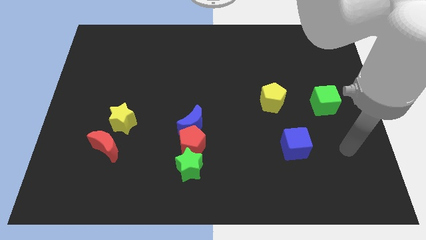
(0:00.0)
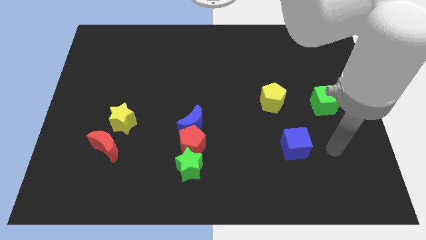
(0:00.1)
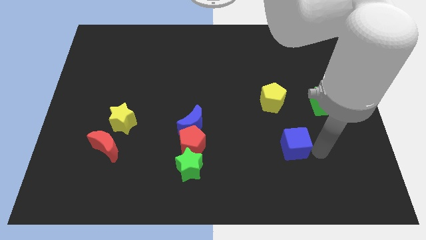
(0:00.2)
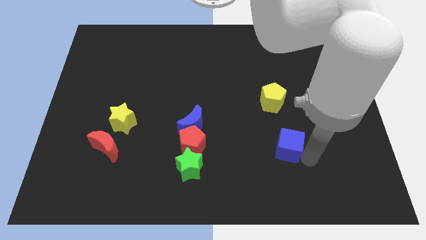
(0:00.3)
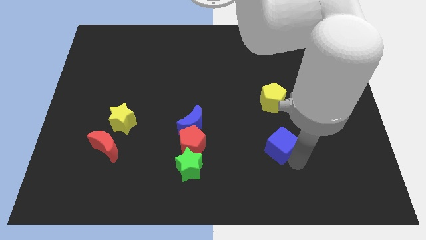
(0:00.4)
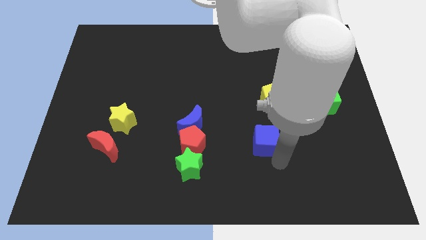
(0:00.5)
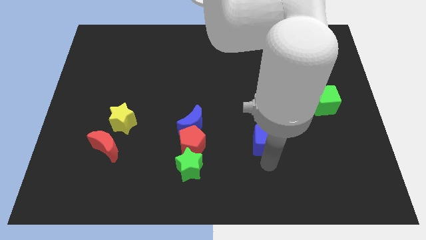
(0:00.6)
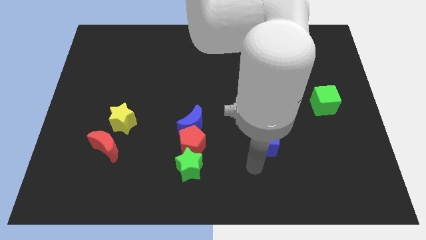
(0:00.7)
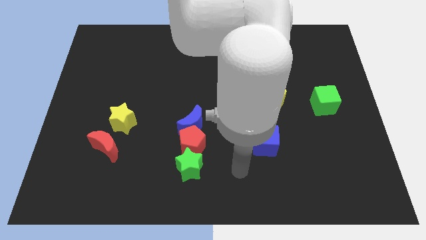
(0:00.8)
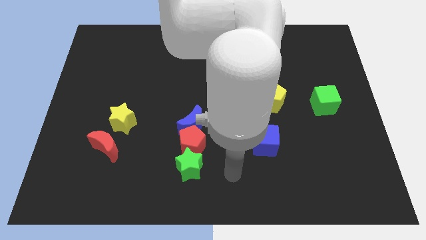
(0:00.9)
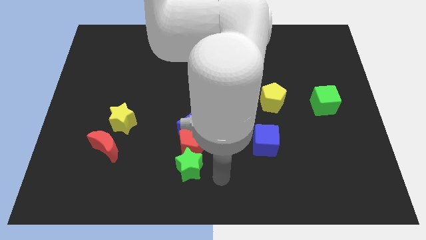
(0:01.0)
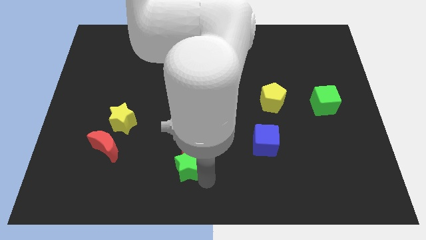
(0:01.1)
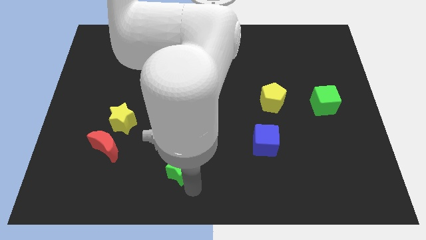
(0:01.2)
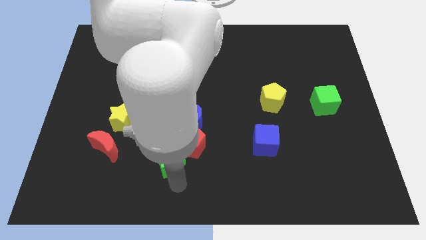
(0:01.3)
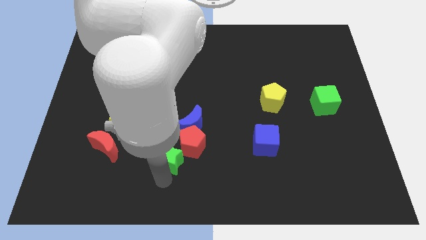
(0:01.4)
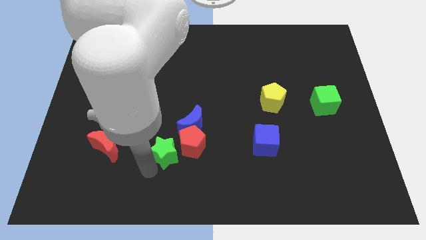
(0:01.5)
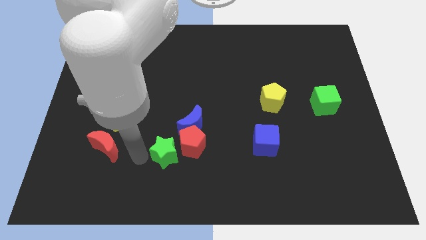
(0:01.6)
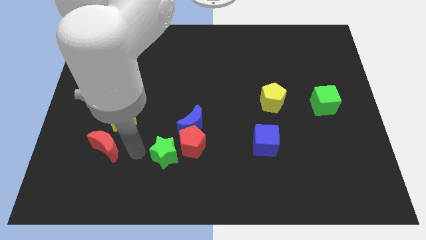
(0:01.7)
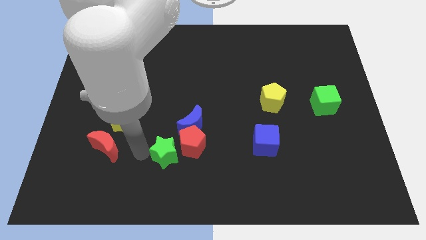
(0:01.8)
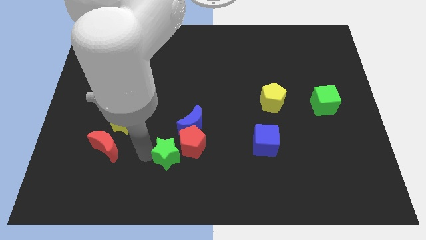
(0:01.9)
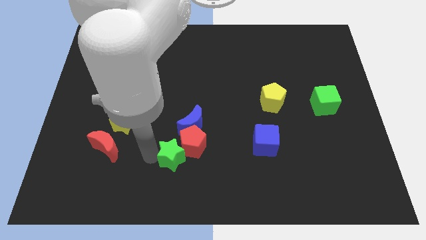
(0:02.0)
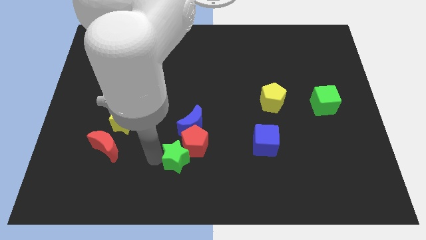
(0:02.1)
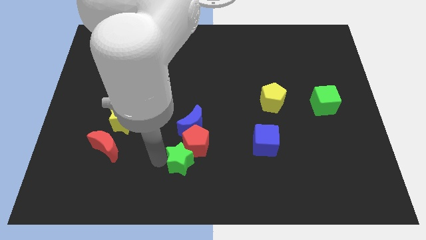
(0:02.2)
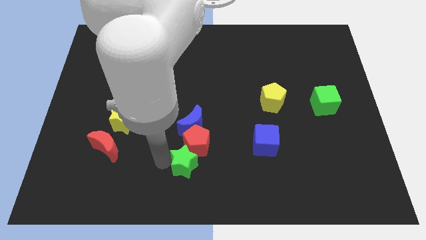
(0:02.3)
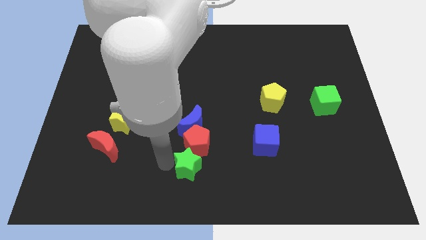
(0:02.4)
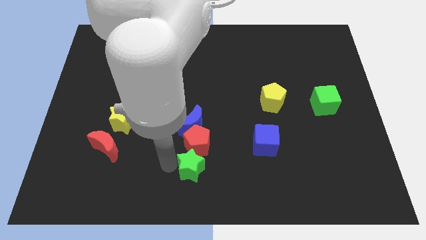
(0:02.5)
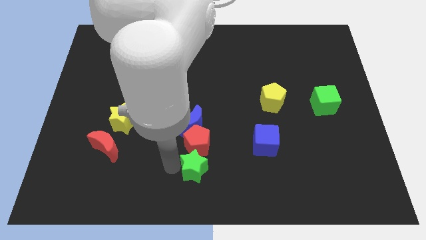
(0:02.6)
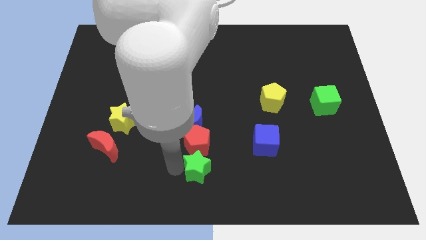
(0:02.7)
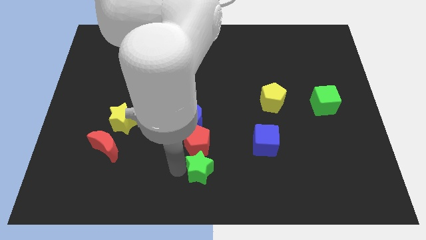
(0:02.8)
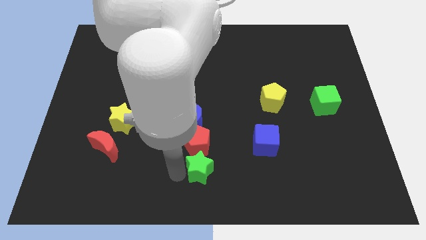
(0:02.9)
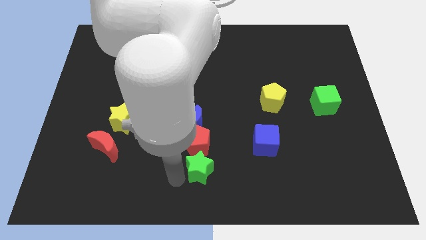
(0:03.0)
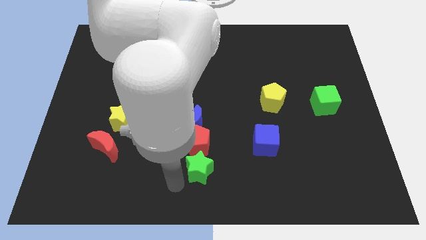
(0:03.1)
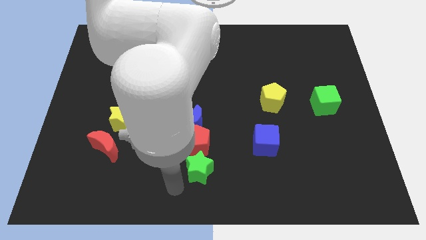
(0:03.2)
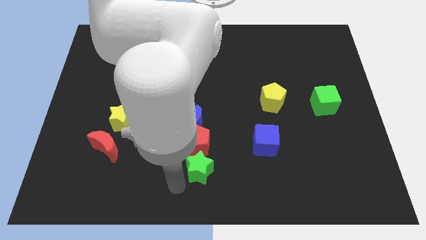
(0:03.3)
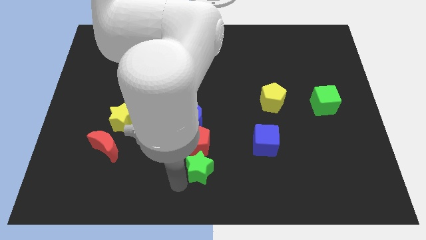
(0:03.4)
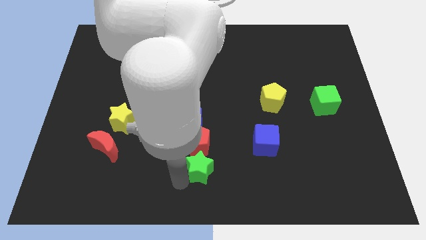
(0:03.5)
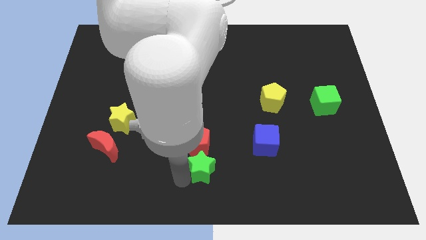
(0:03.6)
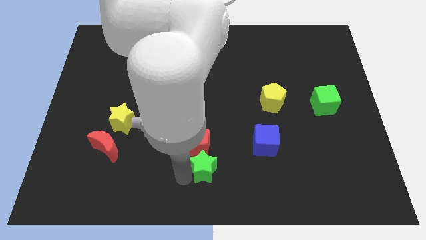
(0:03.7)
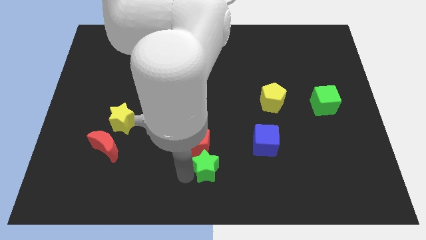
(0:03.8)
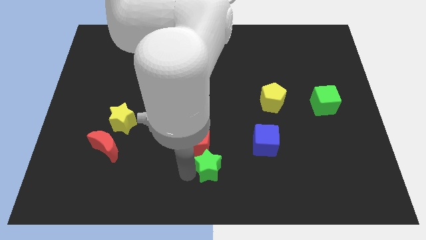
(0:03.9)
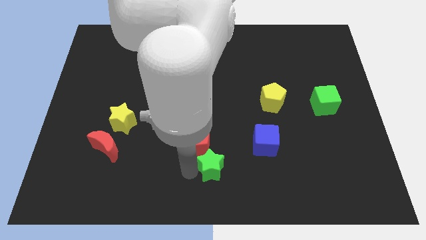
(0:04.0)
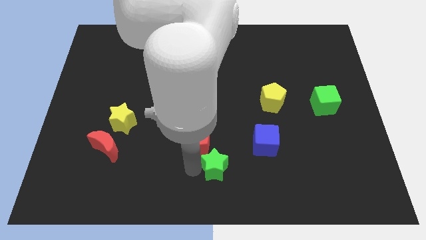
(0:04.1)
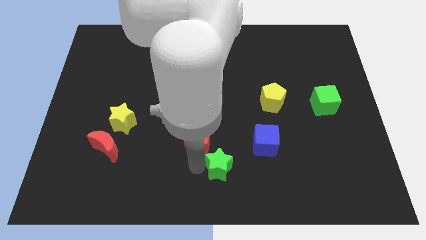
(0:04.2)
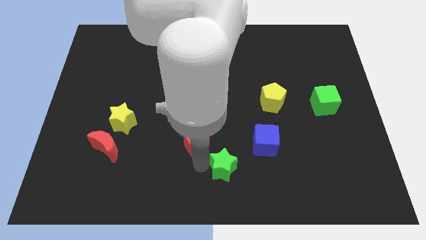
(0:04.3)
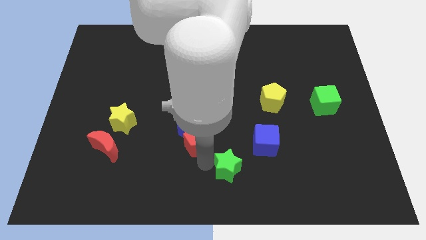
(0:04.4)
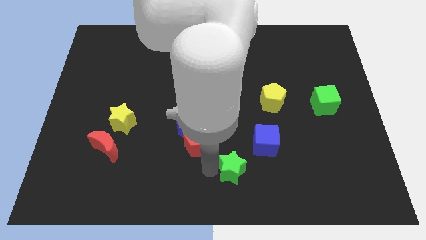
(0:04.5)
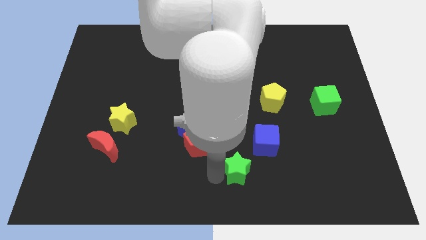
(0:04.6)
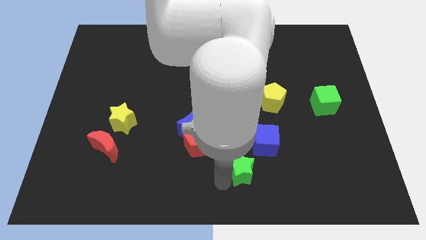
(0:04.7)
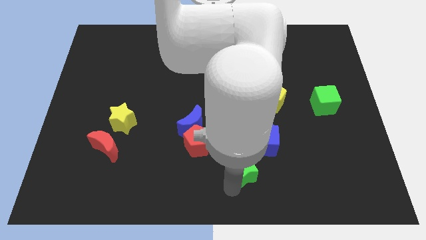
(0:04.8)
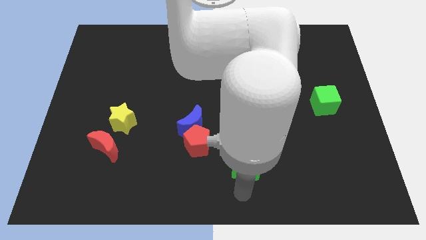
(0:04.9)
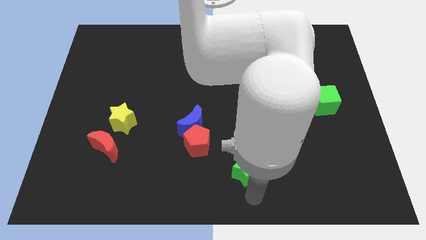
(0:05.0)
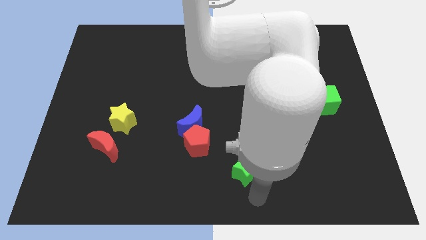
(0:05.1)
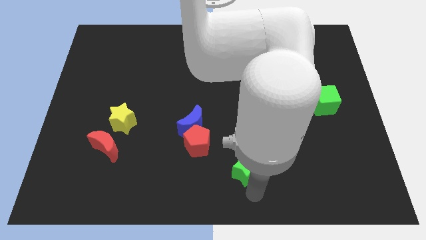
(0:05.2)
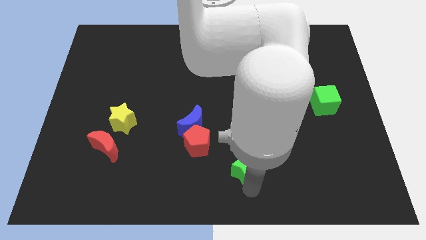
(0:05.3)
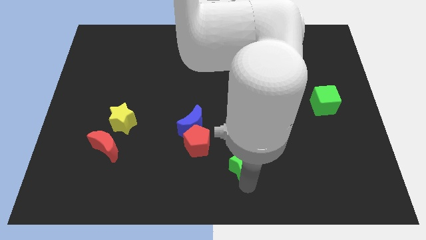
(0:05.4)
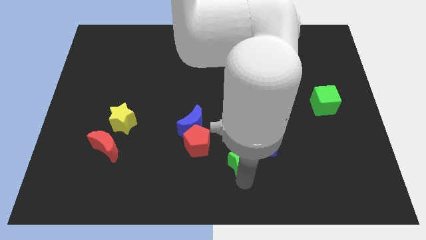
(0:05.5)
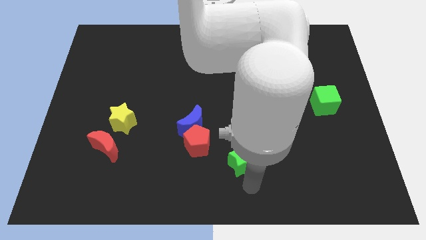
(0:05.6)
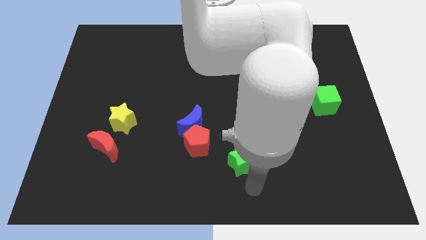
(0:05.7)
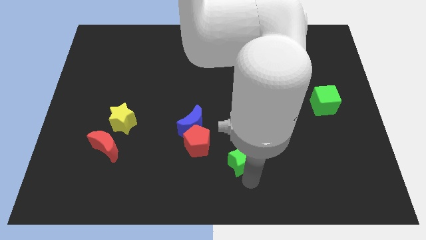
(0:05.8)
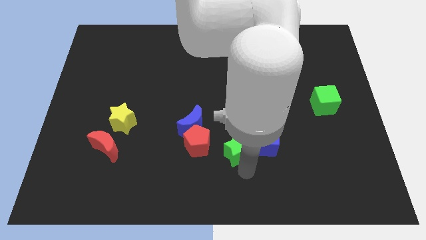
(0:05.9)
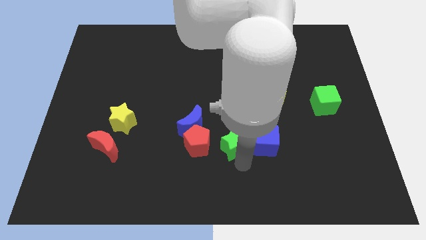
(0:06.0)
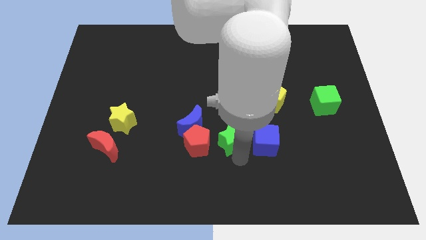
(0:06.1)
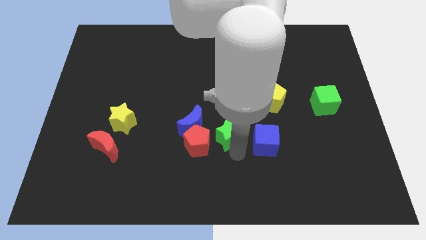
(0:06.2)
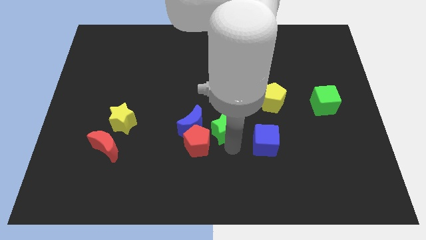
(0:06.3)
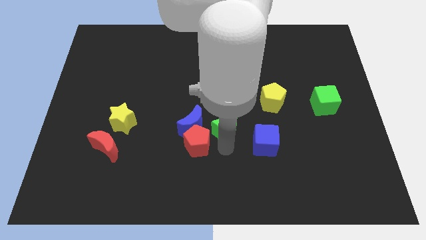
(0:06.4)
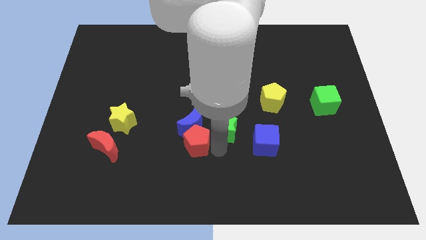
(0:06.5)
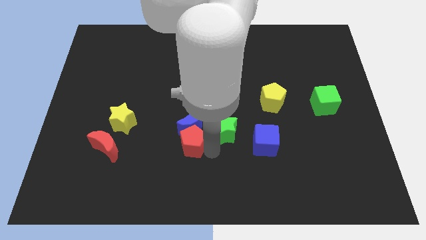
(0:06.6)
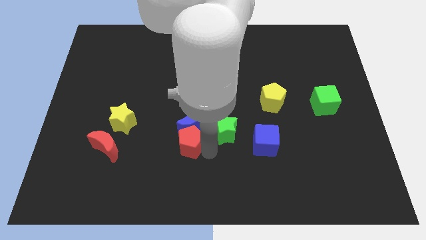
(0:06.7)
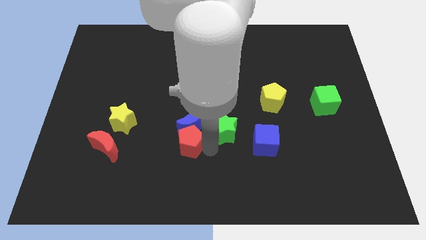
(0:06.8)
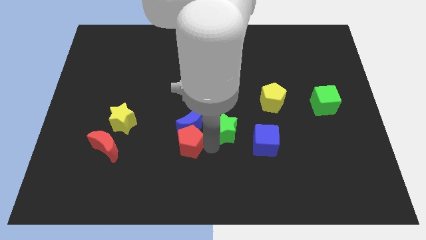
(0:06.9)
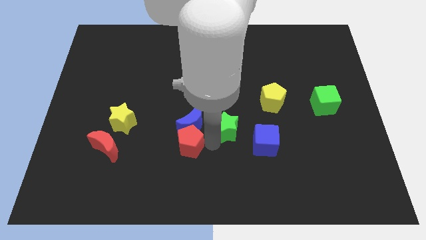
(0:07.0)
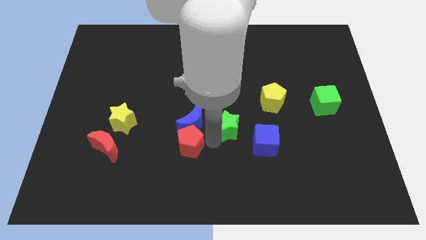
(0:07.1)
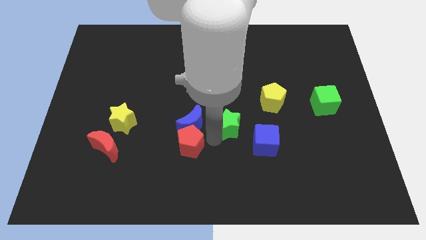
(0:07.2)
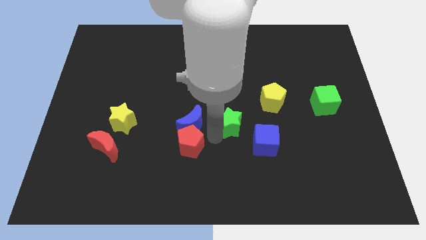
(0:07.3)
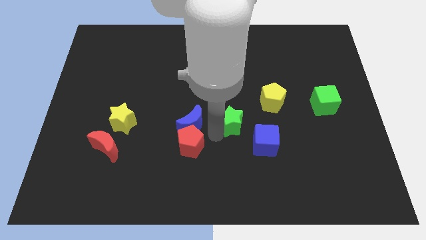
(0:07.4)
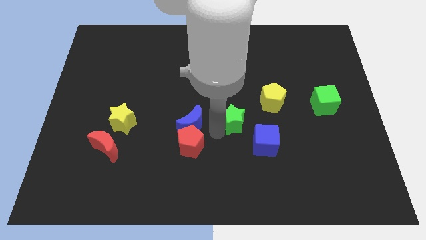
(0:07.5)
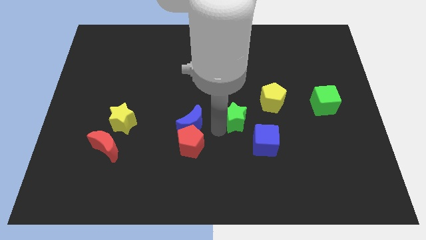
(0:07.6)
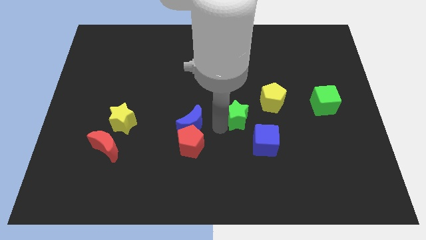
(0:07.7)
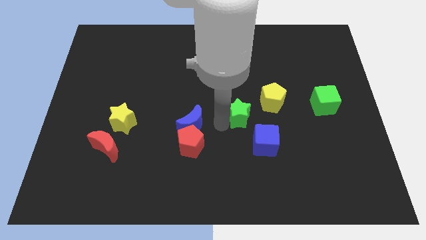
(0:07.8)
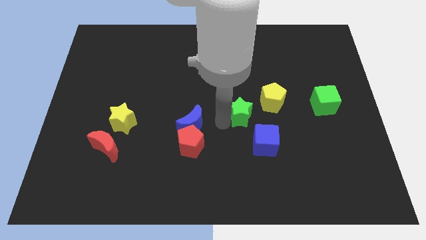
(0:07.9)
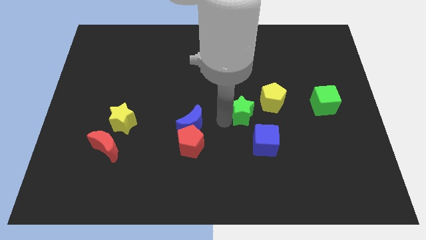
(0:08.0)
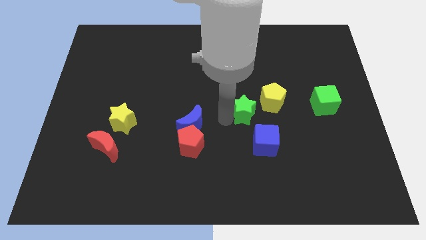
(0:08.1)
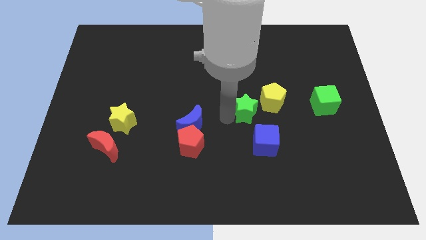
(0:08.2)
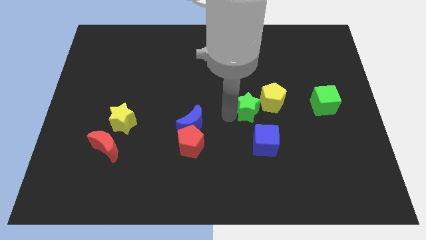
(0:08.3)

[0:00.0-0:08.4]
slide the green star up and right diagonally

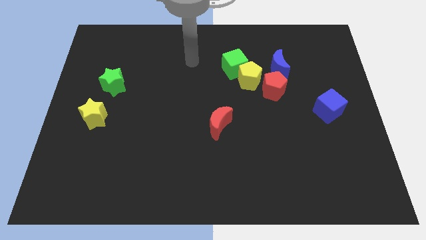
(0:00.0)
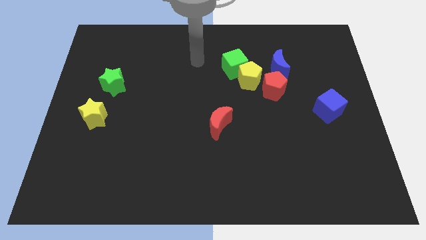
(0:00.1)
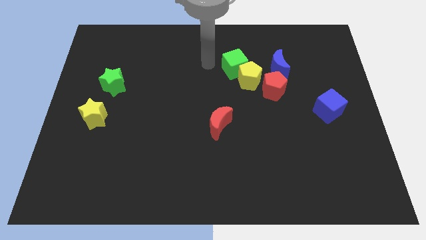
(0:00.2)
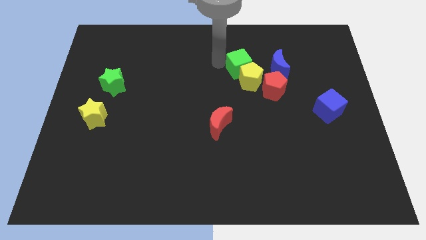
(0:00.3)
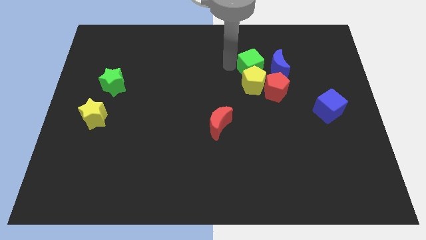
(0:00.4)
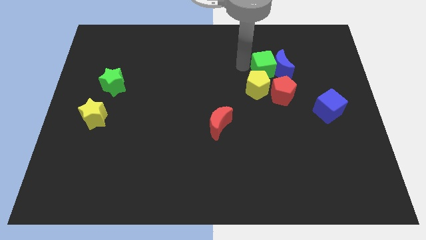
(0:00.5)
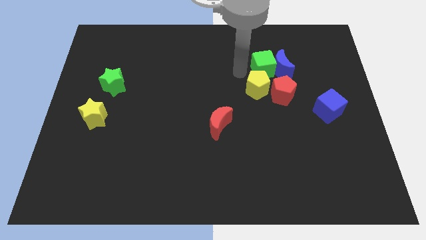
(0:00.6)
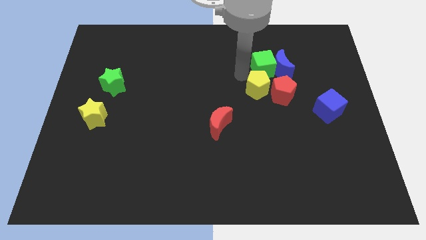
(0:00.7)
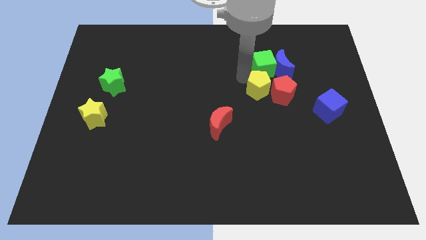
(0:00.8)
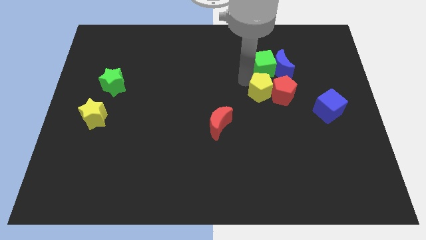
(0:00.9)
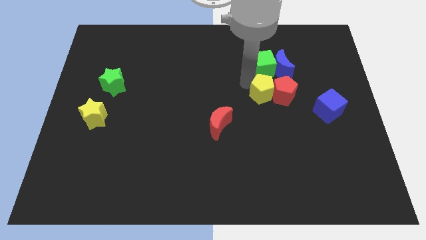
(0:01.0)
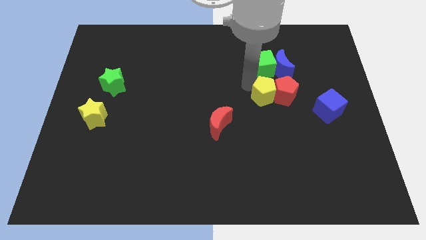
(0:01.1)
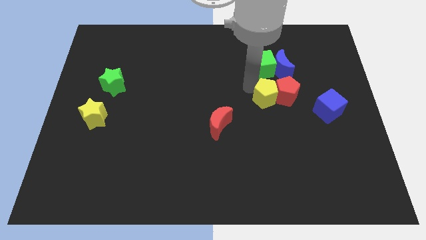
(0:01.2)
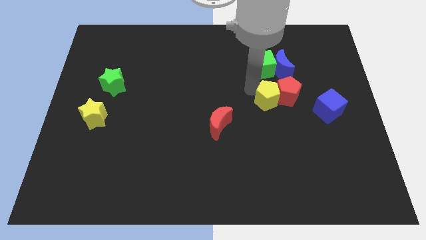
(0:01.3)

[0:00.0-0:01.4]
slightly slide the yellow pentagon down and to the right
